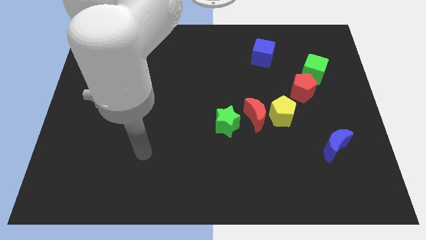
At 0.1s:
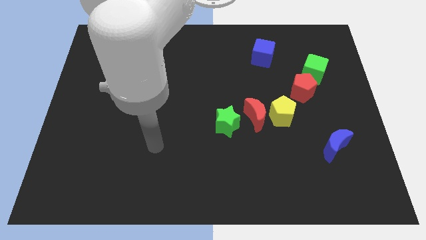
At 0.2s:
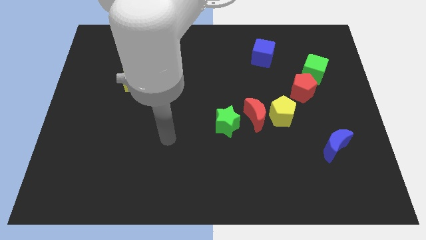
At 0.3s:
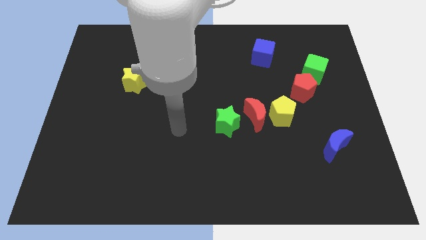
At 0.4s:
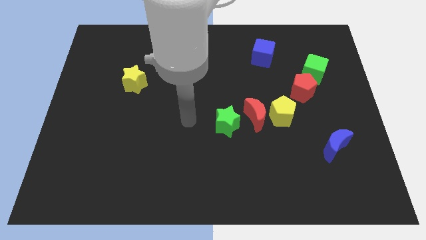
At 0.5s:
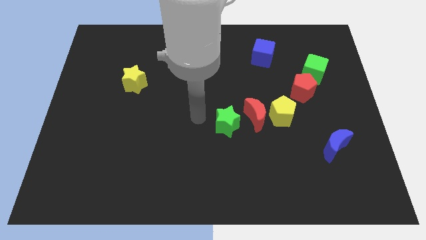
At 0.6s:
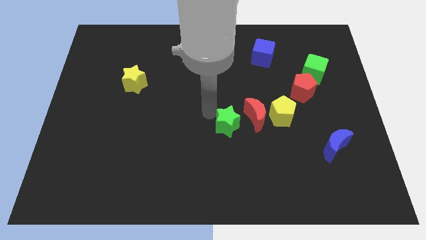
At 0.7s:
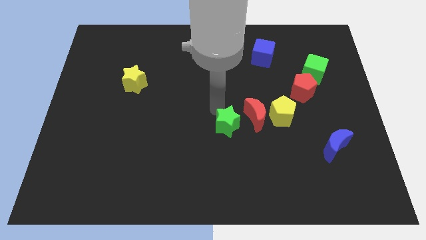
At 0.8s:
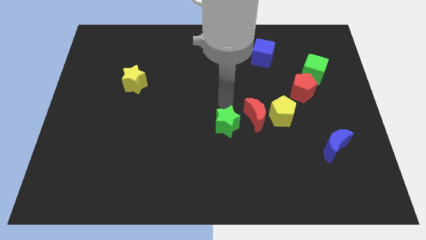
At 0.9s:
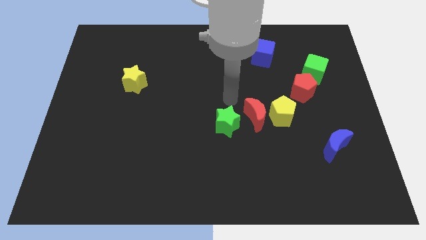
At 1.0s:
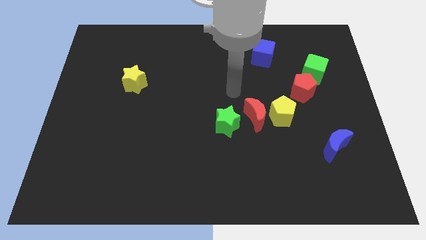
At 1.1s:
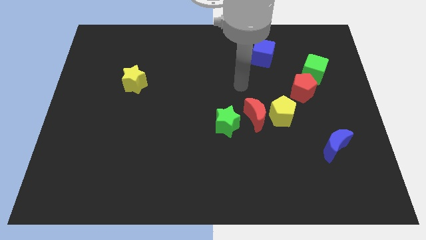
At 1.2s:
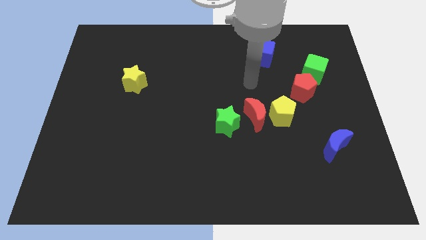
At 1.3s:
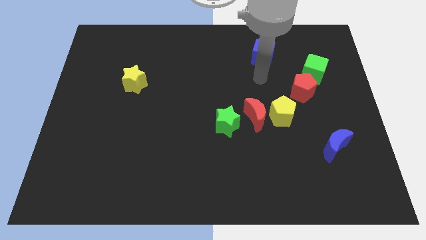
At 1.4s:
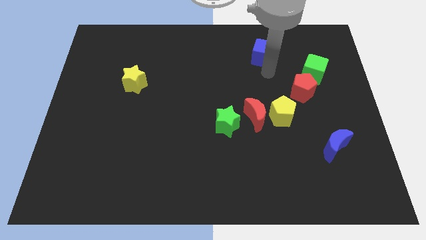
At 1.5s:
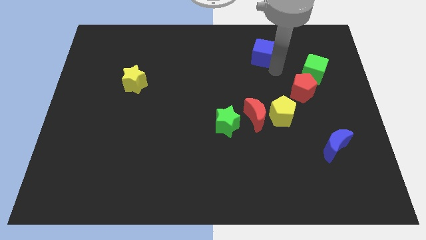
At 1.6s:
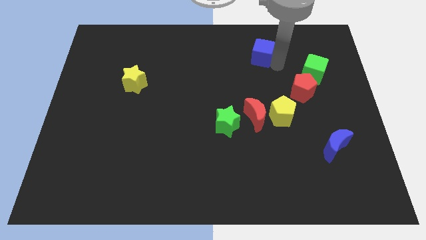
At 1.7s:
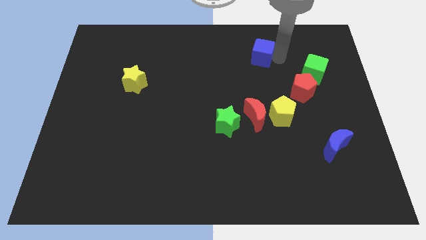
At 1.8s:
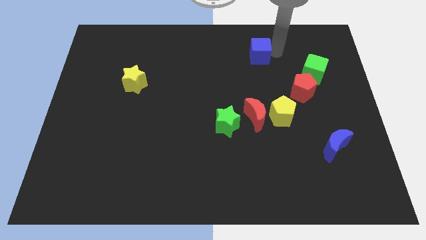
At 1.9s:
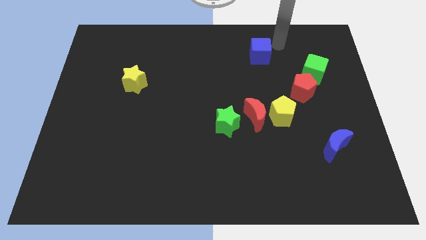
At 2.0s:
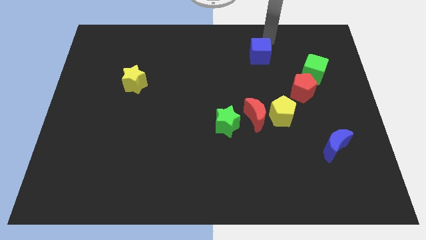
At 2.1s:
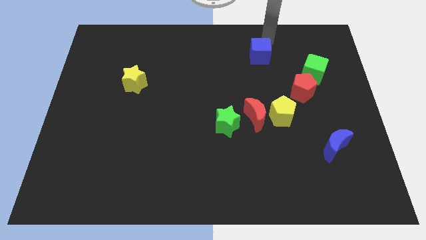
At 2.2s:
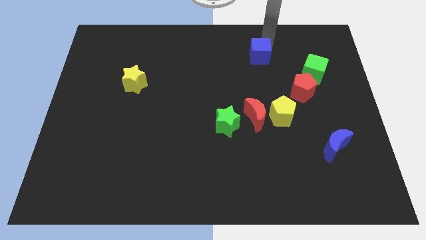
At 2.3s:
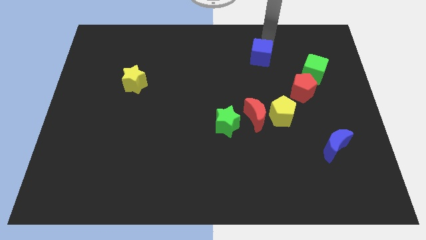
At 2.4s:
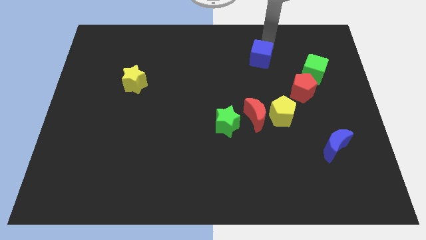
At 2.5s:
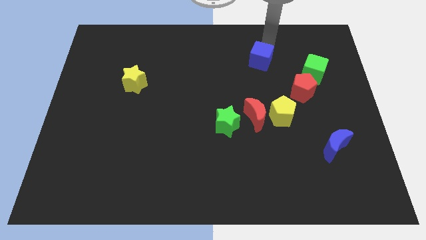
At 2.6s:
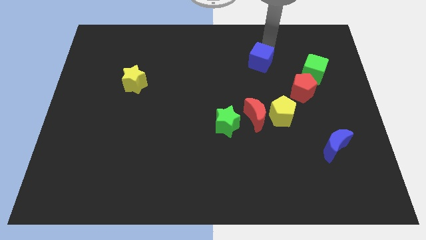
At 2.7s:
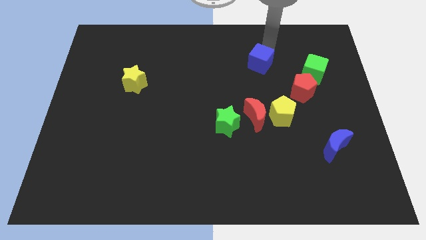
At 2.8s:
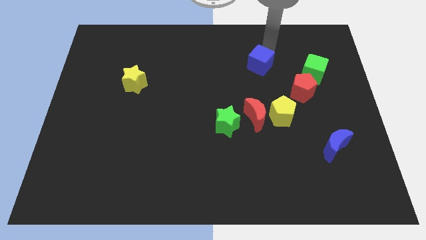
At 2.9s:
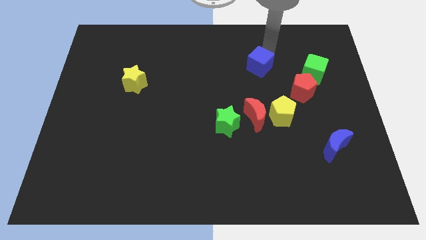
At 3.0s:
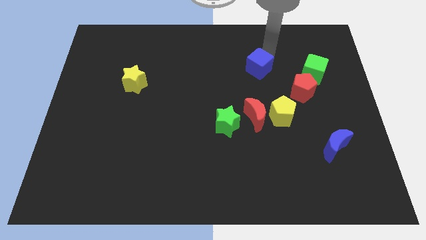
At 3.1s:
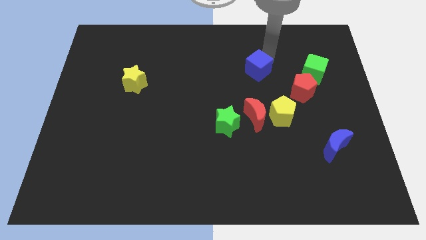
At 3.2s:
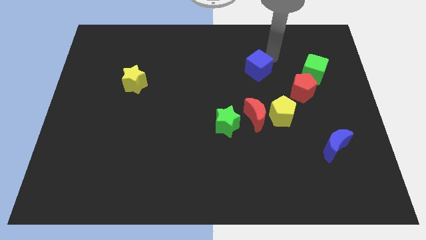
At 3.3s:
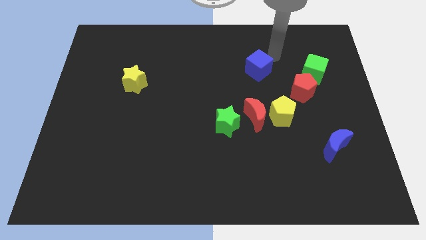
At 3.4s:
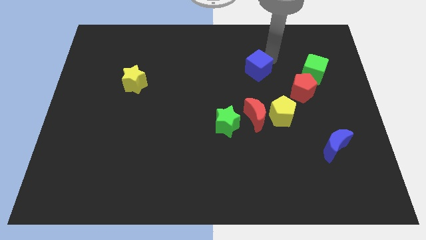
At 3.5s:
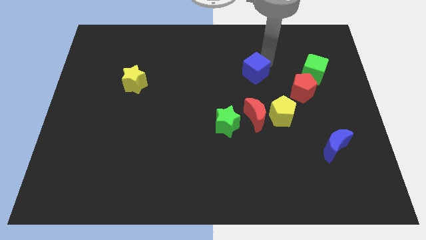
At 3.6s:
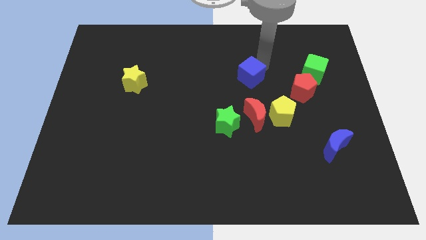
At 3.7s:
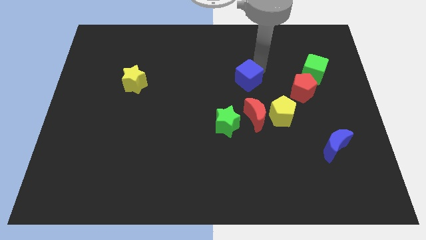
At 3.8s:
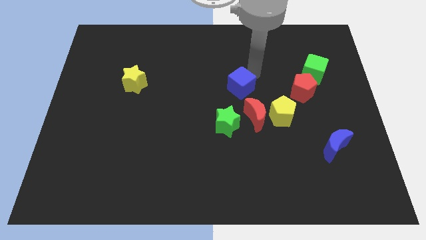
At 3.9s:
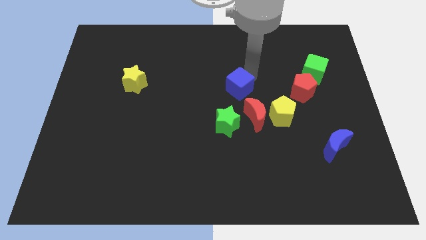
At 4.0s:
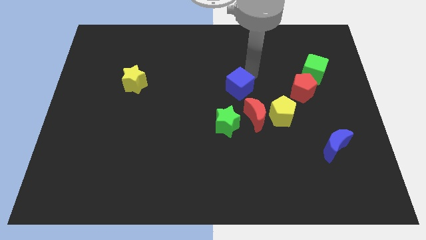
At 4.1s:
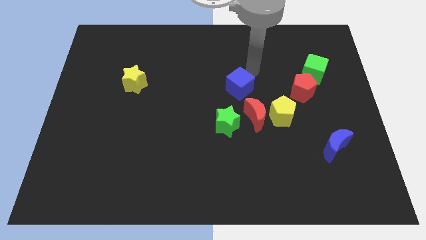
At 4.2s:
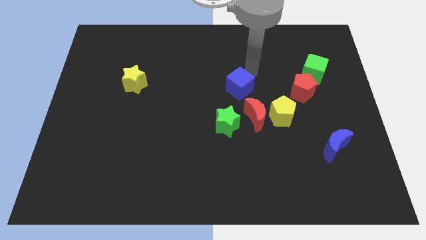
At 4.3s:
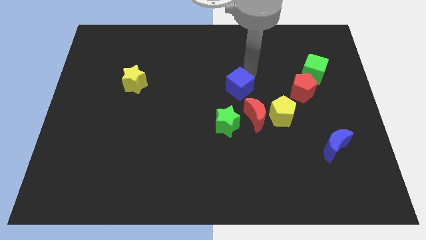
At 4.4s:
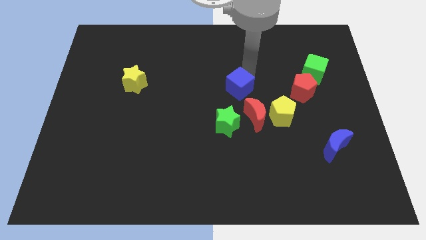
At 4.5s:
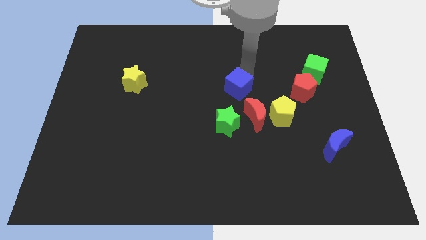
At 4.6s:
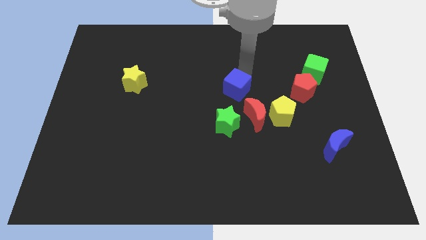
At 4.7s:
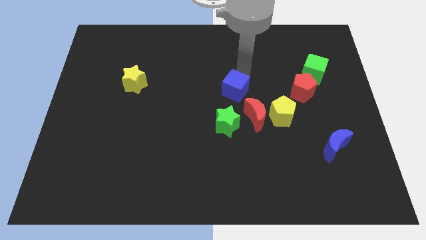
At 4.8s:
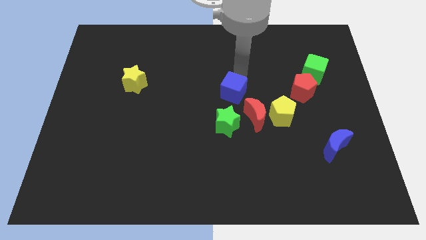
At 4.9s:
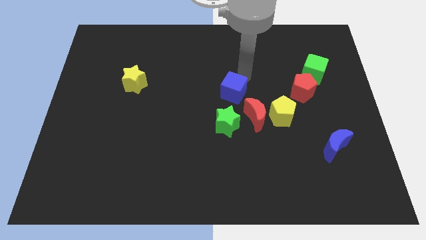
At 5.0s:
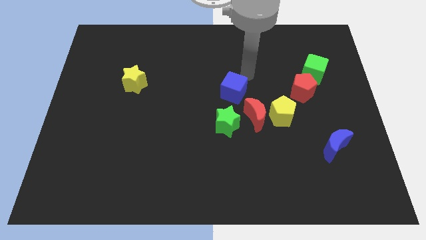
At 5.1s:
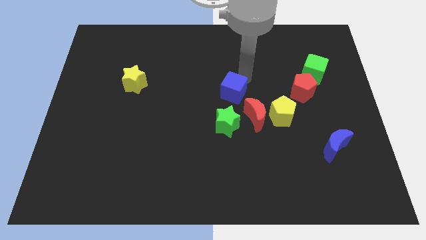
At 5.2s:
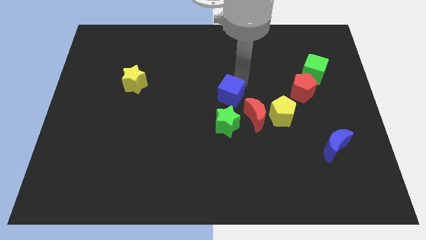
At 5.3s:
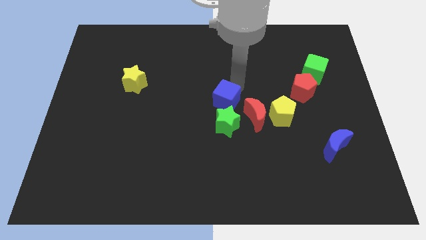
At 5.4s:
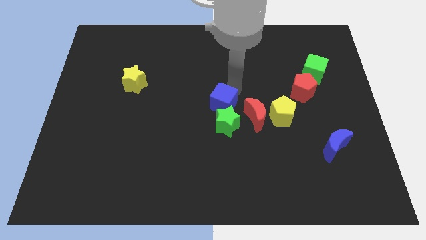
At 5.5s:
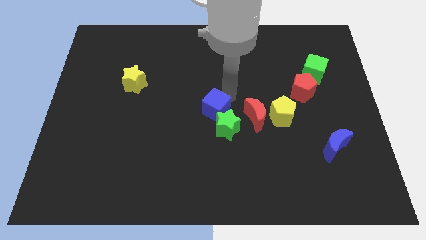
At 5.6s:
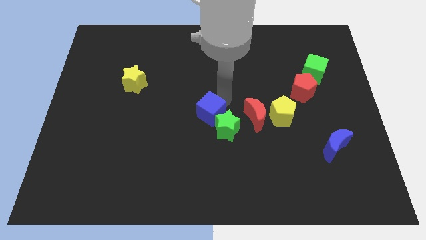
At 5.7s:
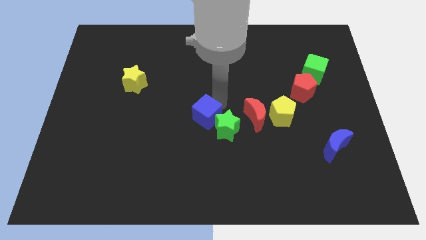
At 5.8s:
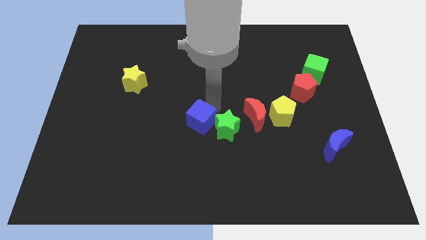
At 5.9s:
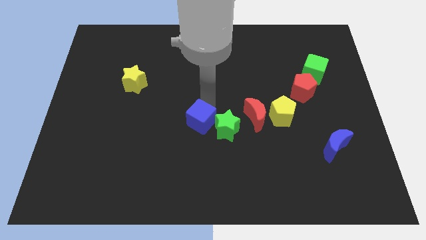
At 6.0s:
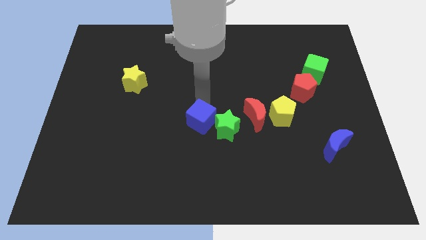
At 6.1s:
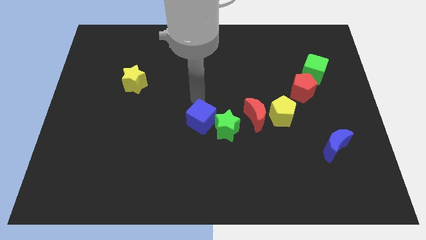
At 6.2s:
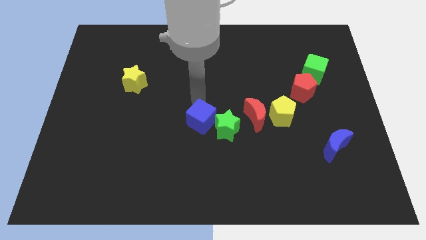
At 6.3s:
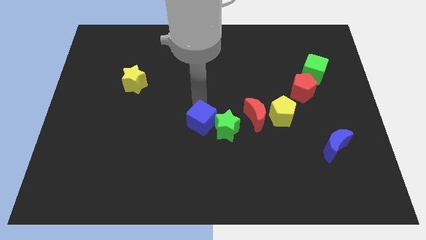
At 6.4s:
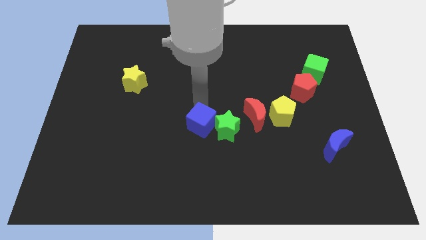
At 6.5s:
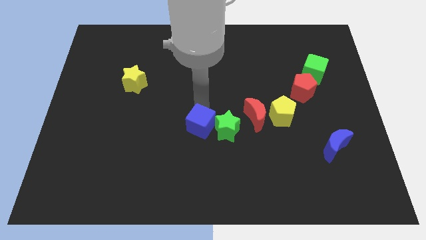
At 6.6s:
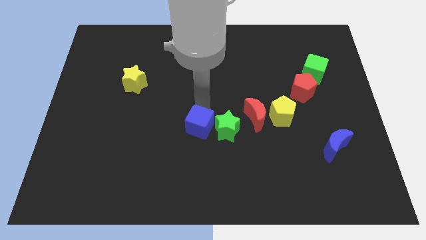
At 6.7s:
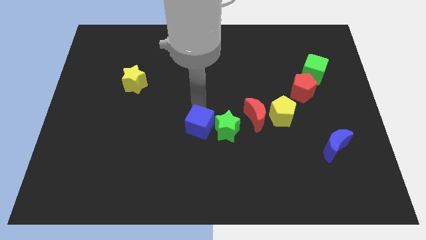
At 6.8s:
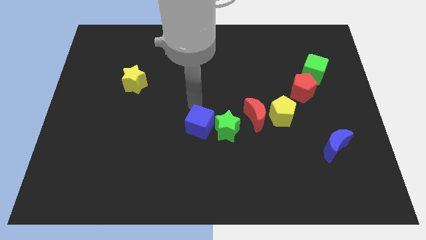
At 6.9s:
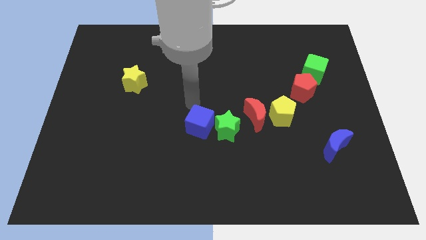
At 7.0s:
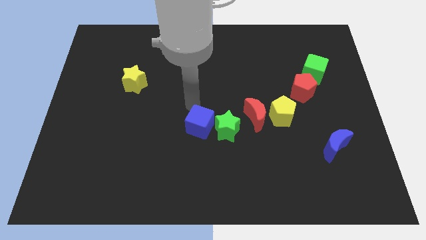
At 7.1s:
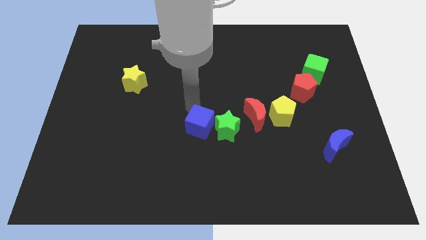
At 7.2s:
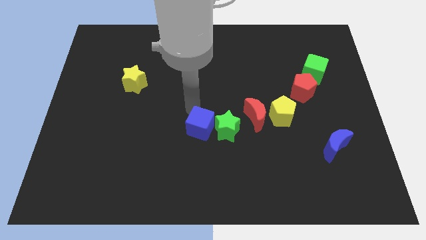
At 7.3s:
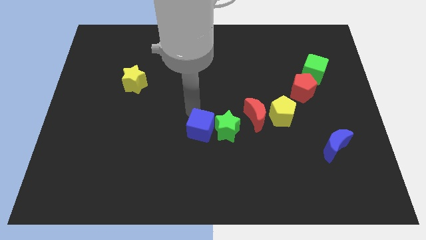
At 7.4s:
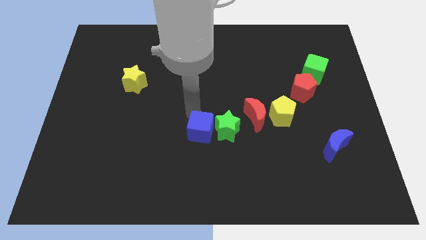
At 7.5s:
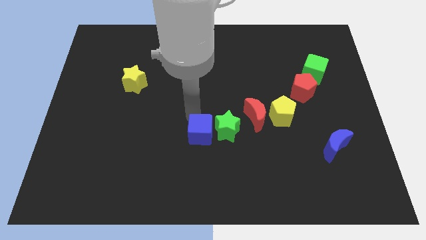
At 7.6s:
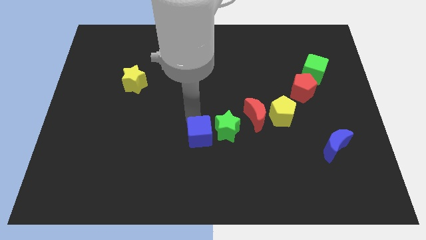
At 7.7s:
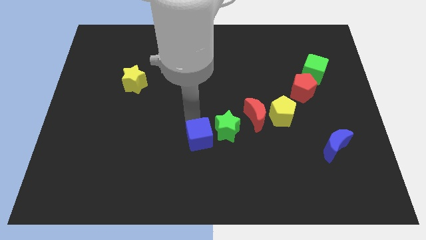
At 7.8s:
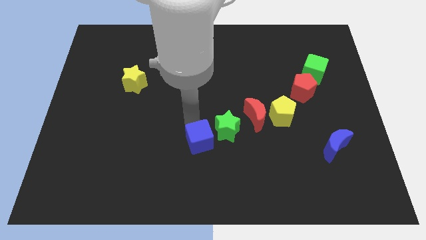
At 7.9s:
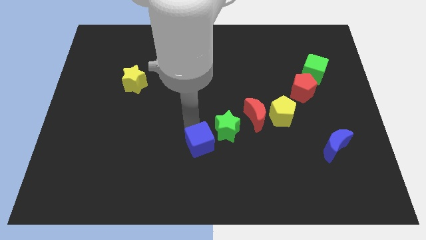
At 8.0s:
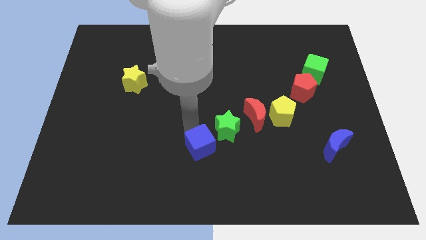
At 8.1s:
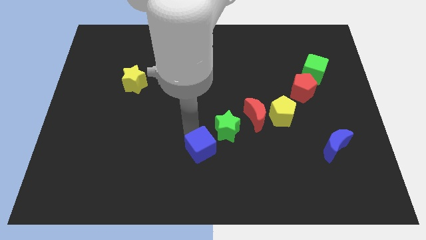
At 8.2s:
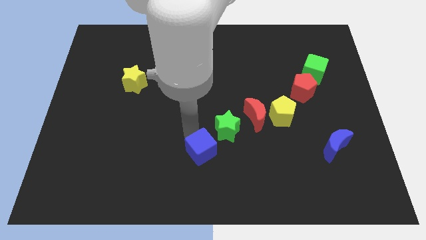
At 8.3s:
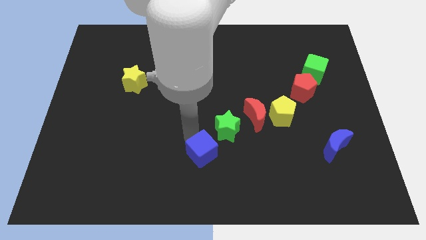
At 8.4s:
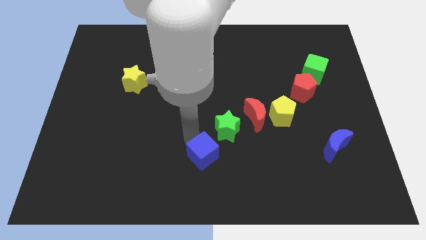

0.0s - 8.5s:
move the blue cube to the bottom
